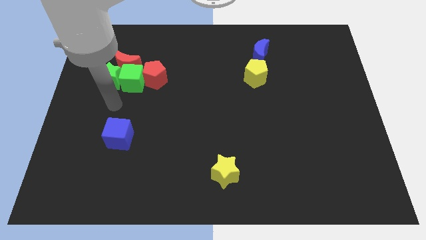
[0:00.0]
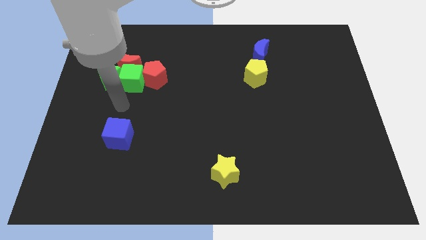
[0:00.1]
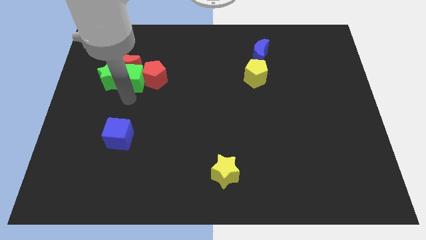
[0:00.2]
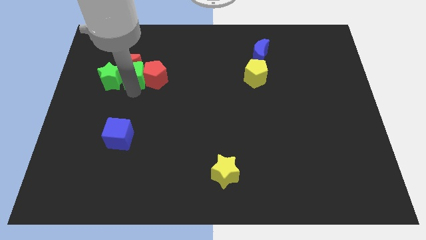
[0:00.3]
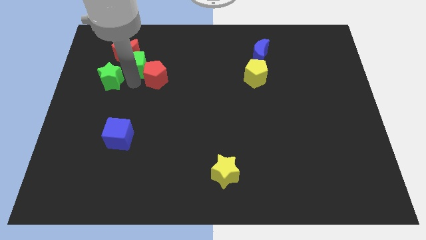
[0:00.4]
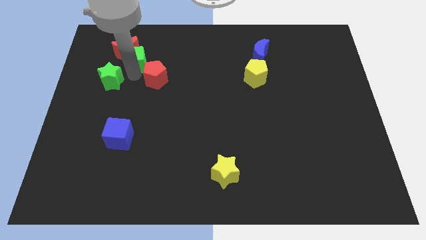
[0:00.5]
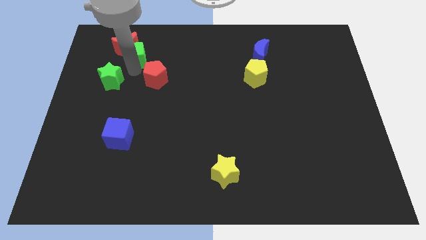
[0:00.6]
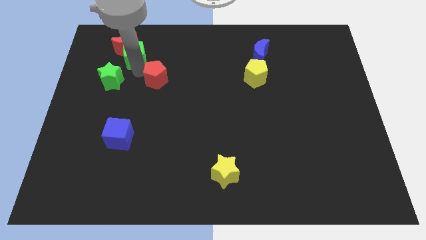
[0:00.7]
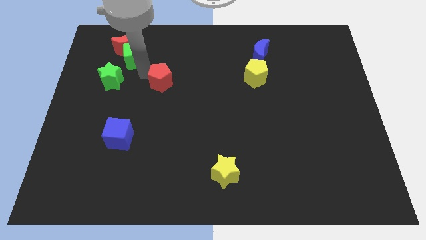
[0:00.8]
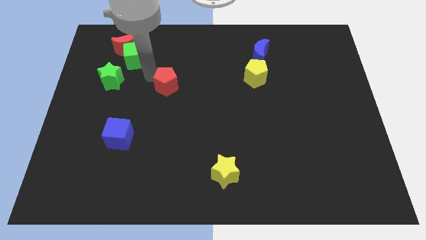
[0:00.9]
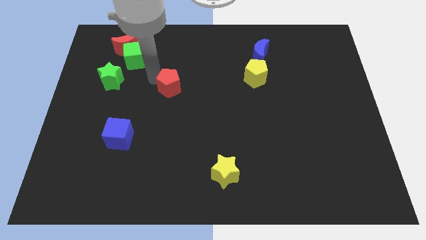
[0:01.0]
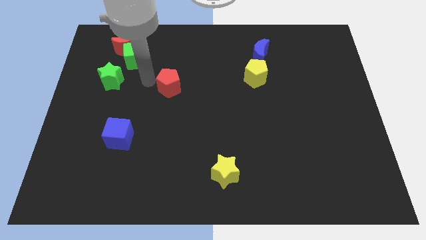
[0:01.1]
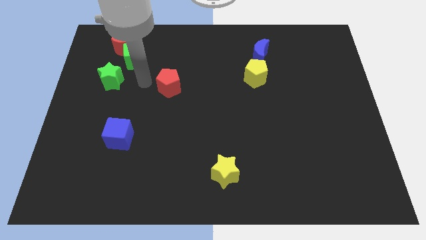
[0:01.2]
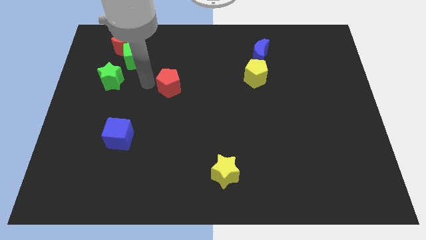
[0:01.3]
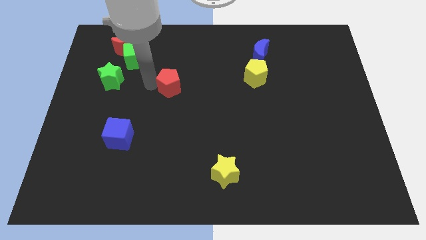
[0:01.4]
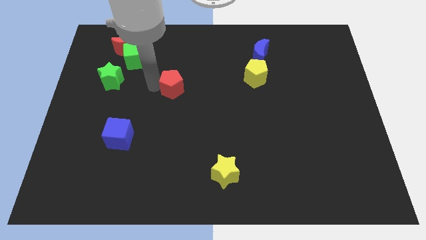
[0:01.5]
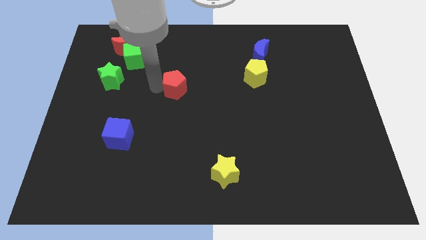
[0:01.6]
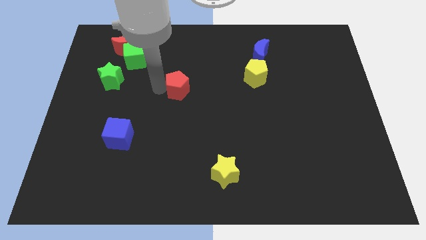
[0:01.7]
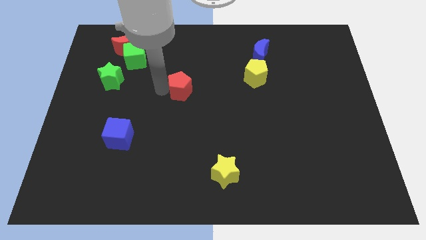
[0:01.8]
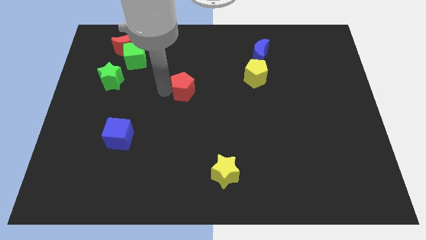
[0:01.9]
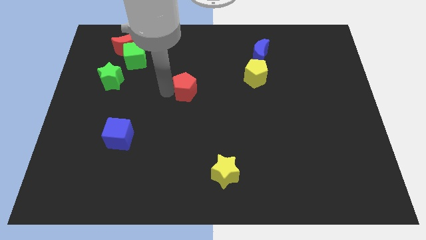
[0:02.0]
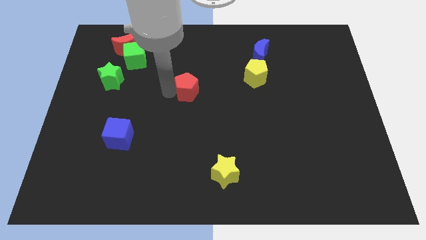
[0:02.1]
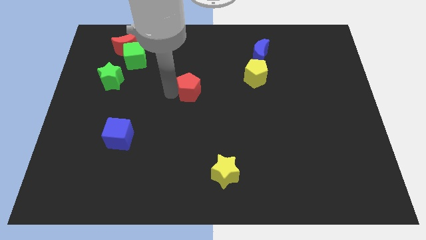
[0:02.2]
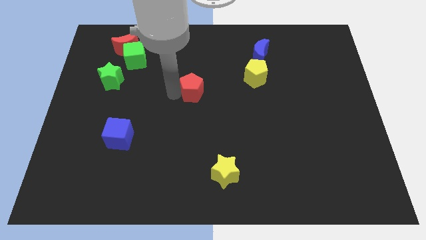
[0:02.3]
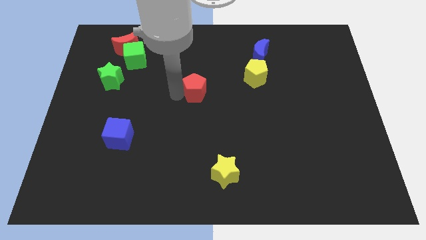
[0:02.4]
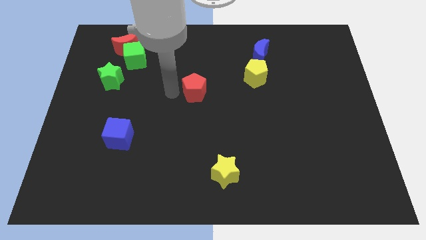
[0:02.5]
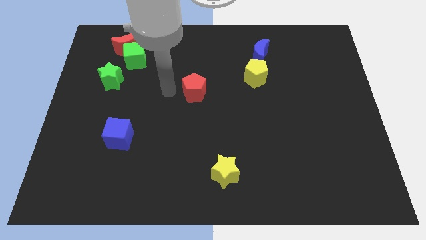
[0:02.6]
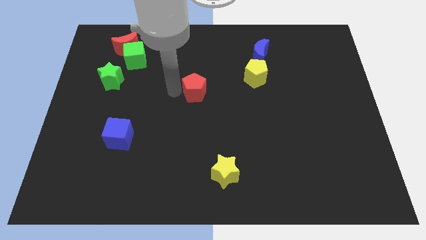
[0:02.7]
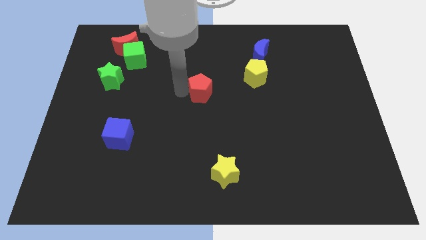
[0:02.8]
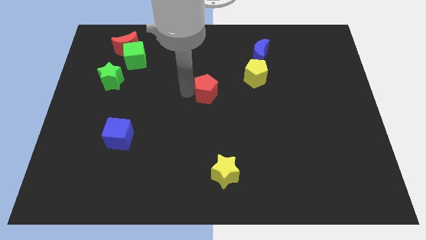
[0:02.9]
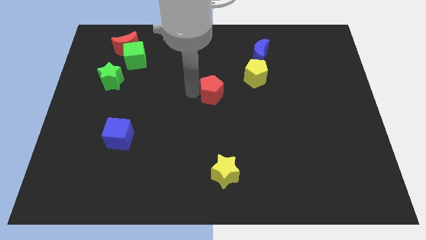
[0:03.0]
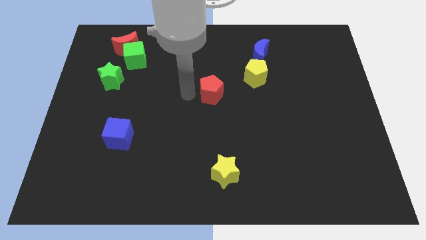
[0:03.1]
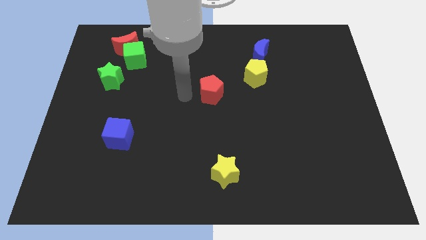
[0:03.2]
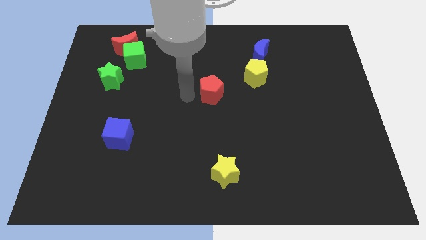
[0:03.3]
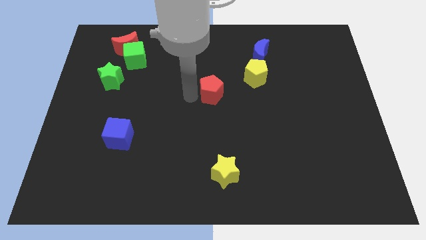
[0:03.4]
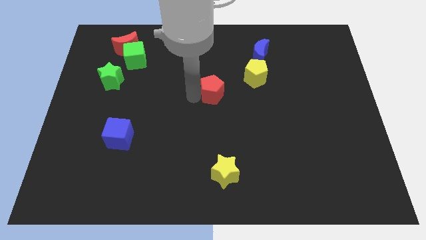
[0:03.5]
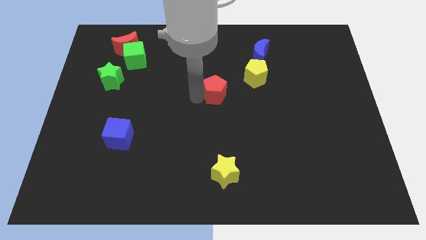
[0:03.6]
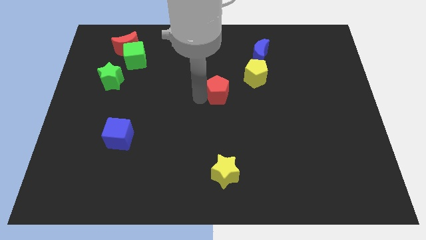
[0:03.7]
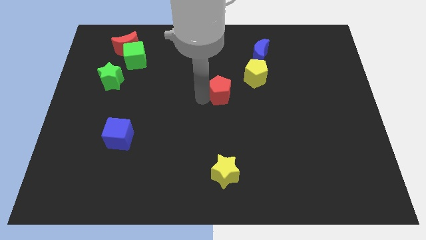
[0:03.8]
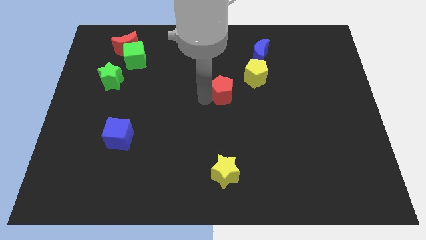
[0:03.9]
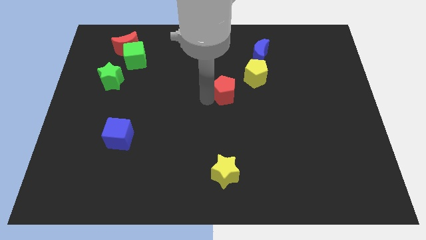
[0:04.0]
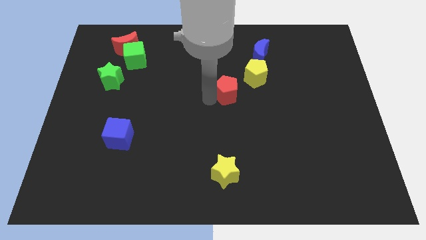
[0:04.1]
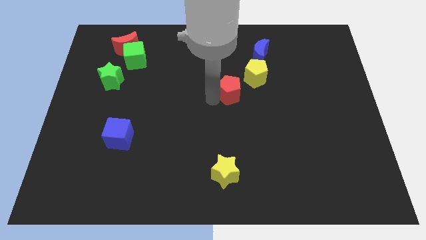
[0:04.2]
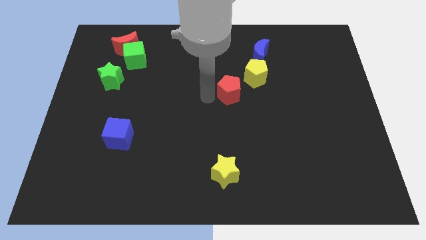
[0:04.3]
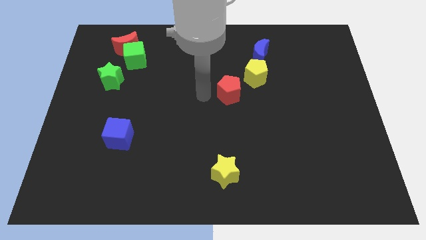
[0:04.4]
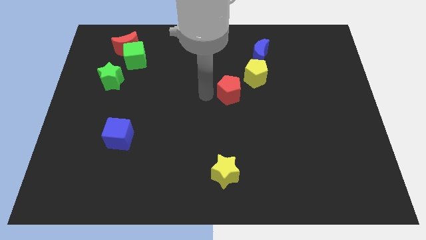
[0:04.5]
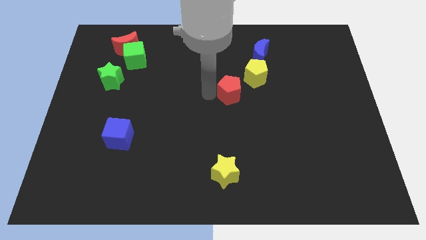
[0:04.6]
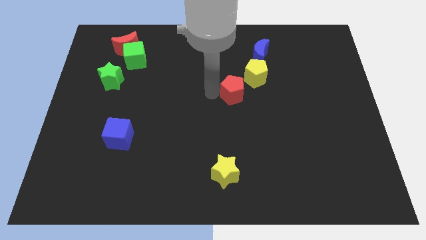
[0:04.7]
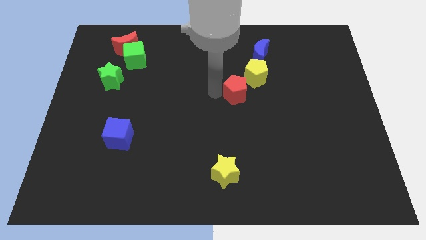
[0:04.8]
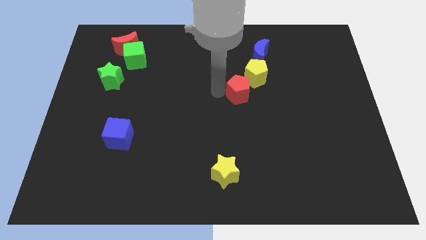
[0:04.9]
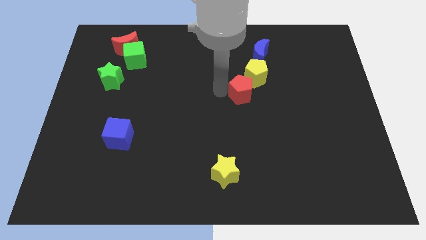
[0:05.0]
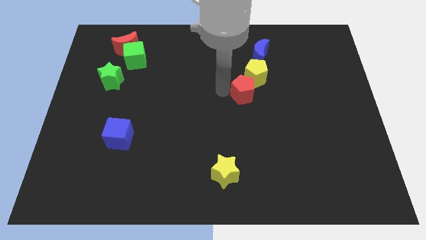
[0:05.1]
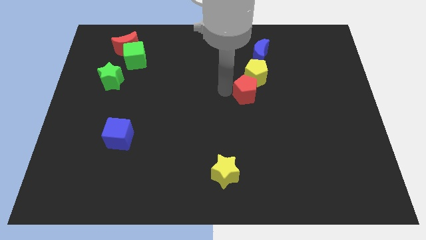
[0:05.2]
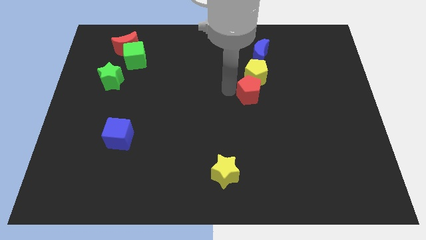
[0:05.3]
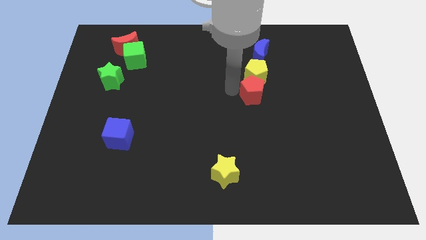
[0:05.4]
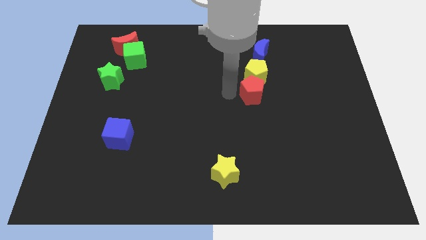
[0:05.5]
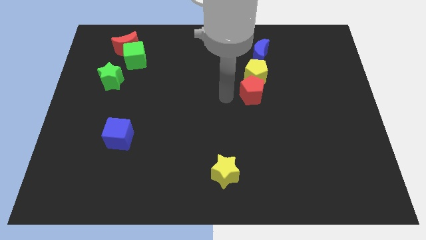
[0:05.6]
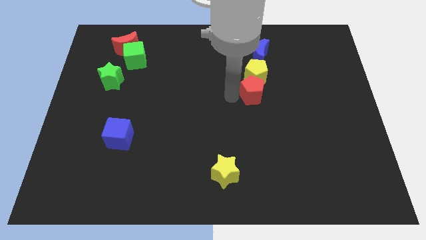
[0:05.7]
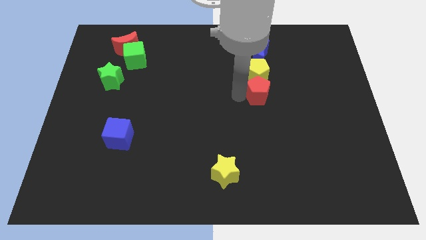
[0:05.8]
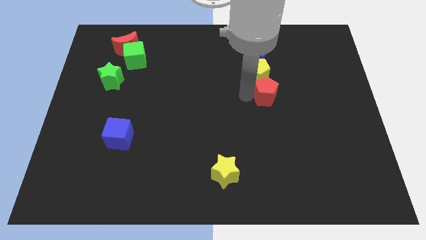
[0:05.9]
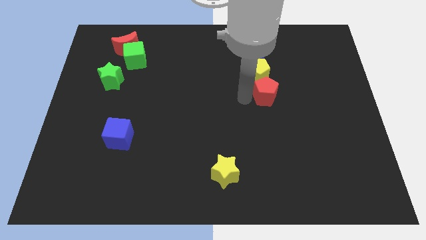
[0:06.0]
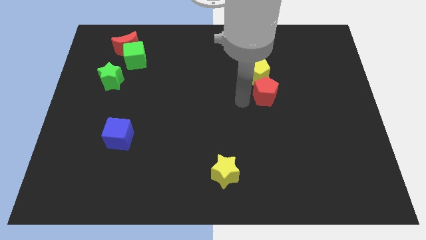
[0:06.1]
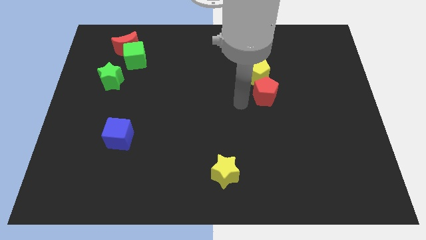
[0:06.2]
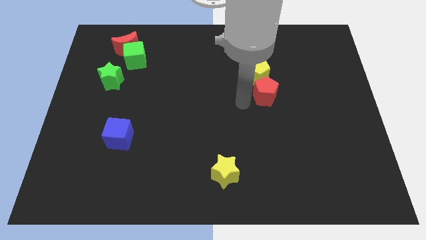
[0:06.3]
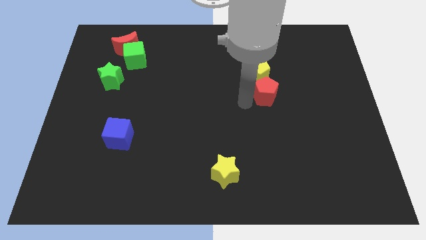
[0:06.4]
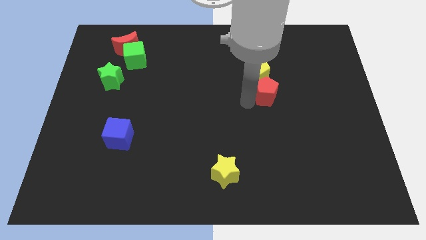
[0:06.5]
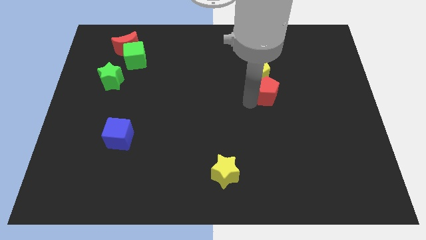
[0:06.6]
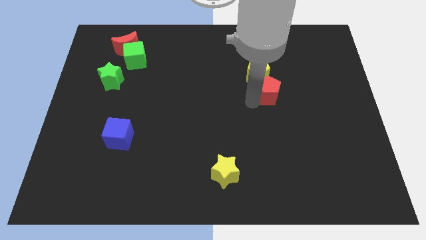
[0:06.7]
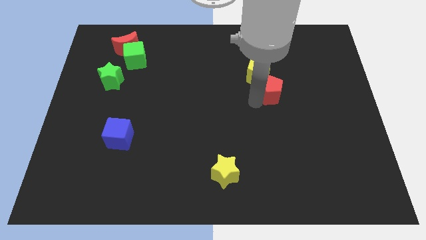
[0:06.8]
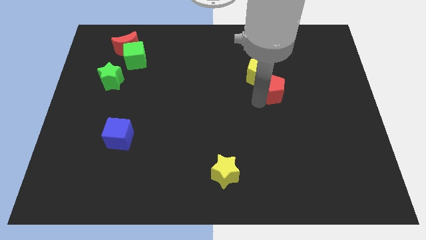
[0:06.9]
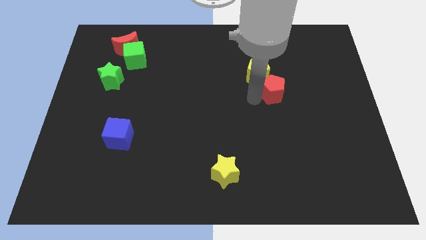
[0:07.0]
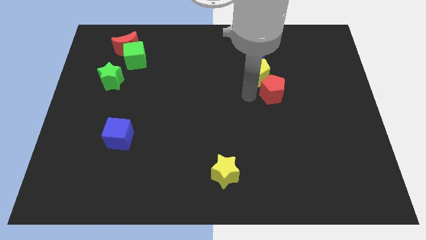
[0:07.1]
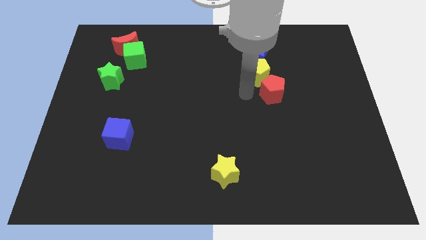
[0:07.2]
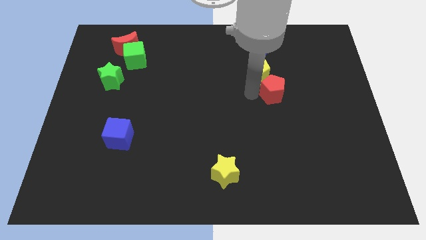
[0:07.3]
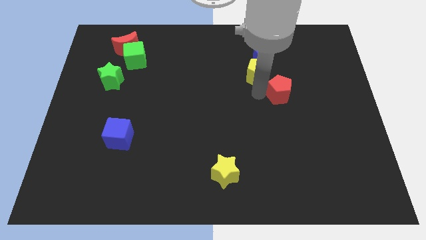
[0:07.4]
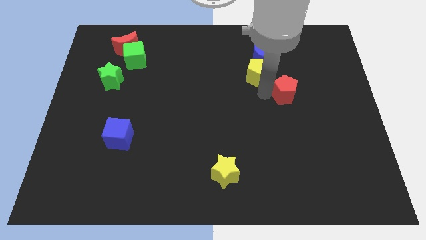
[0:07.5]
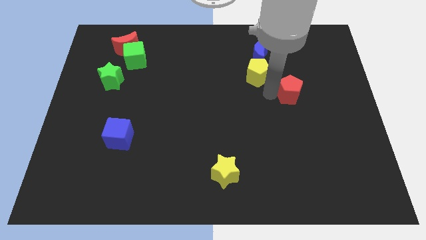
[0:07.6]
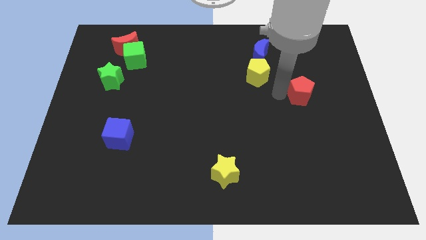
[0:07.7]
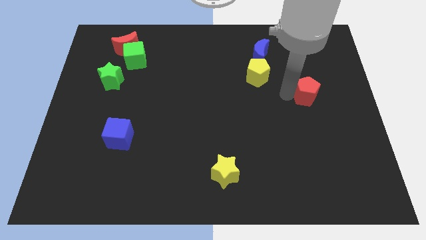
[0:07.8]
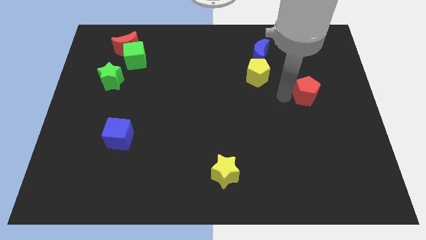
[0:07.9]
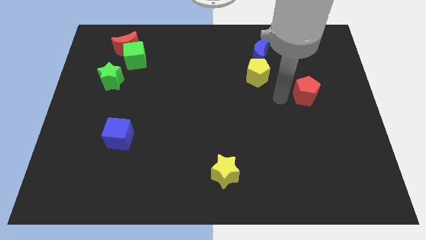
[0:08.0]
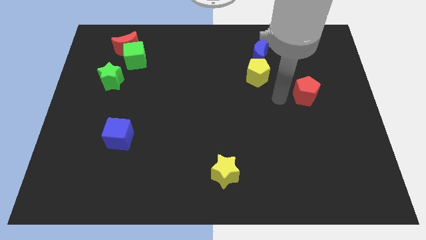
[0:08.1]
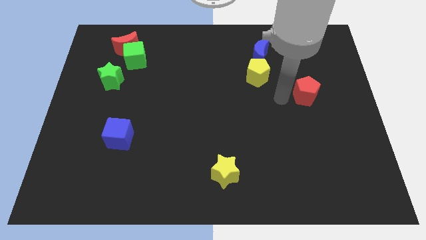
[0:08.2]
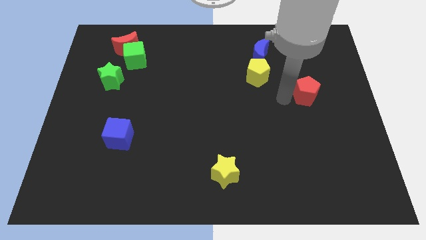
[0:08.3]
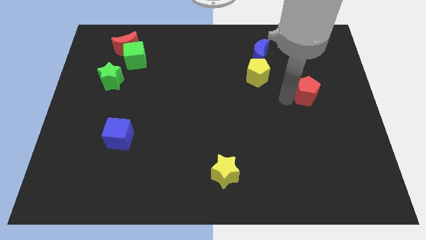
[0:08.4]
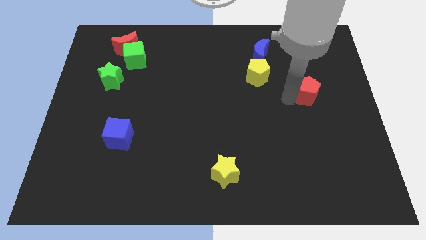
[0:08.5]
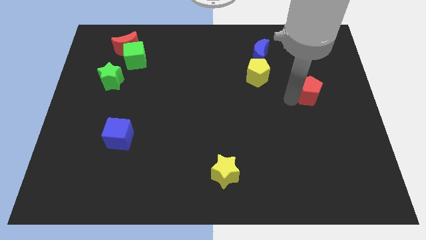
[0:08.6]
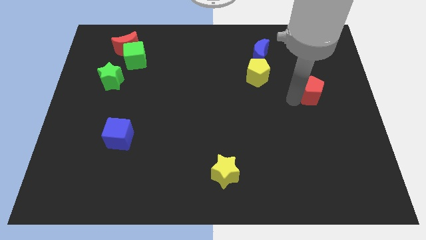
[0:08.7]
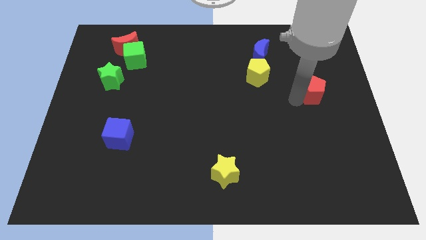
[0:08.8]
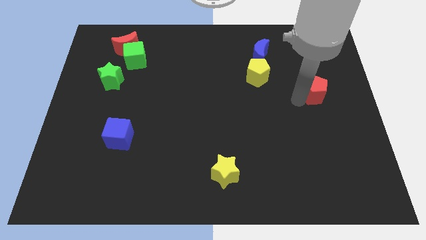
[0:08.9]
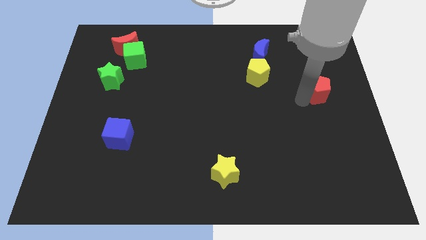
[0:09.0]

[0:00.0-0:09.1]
move the red pentagon to the right side
